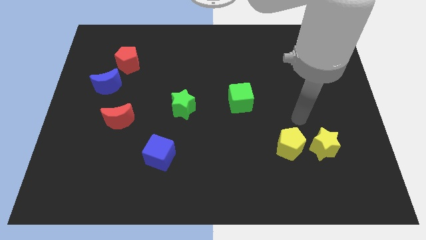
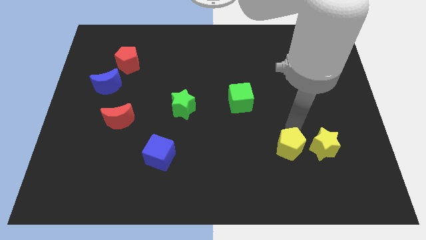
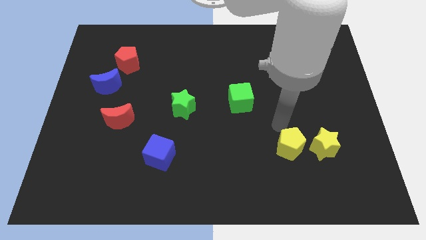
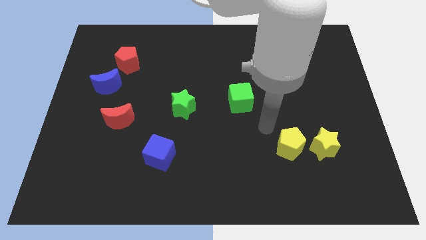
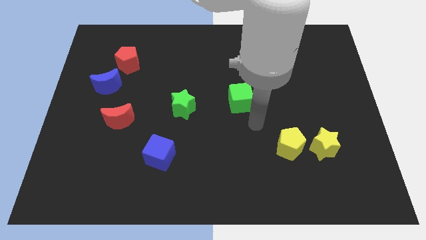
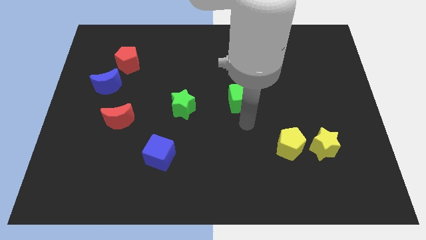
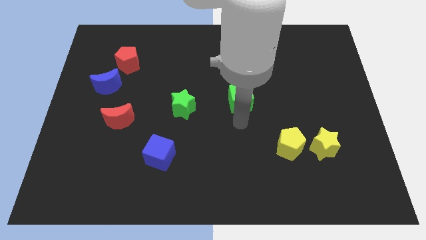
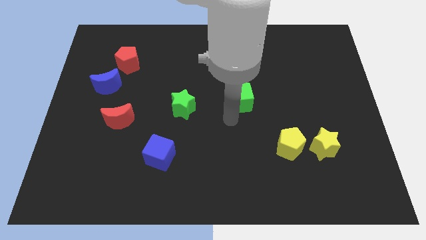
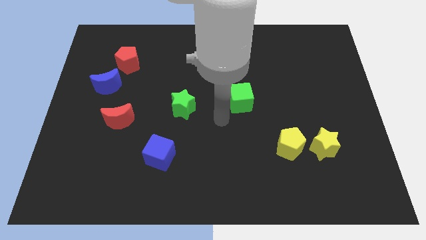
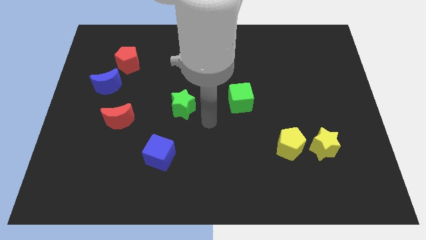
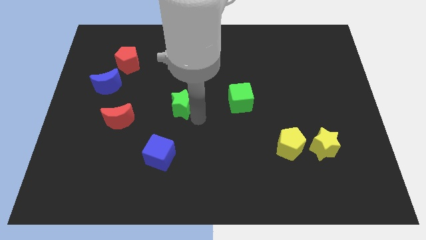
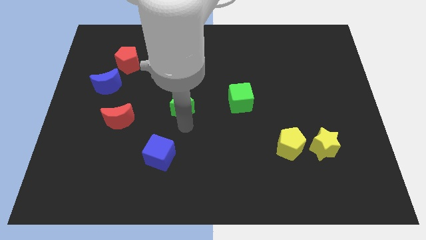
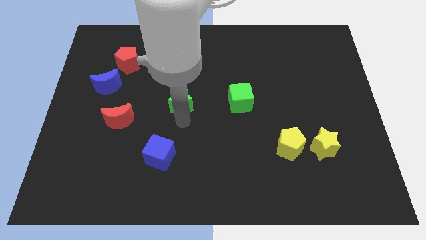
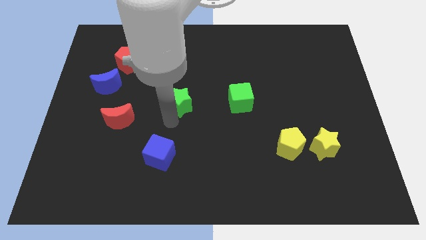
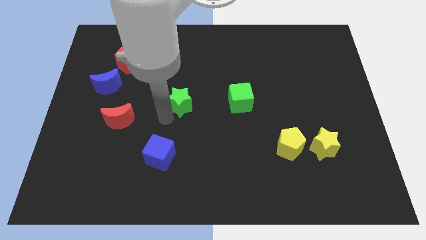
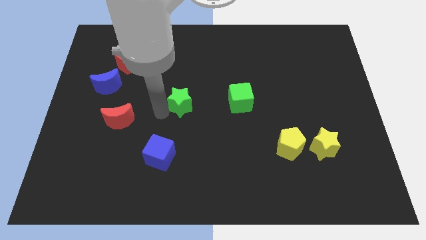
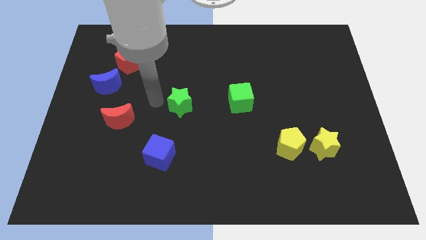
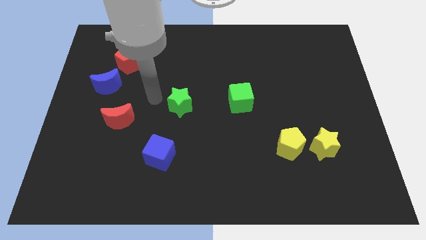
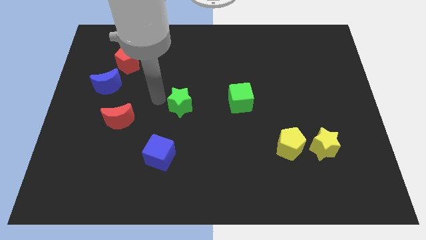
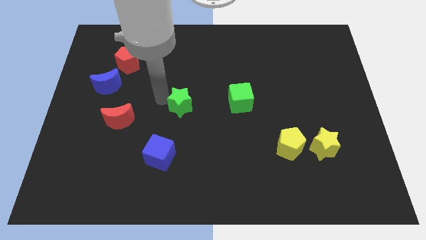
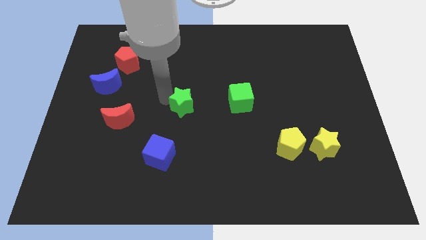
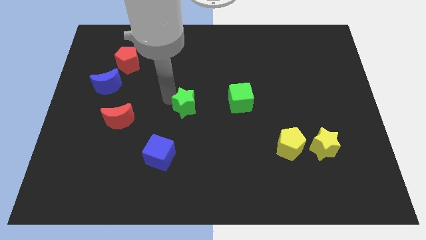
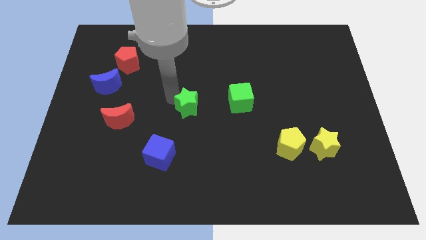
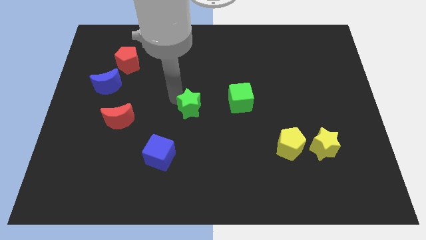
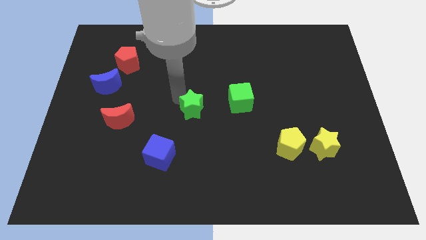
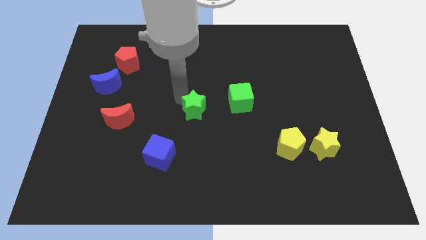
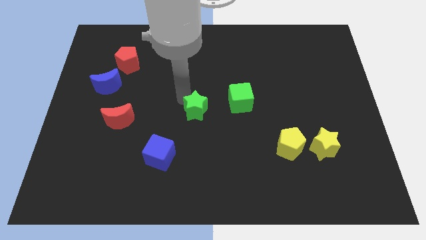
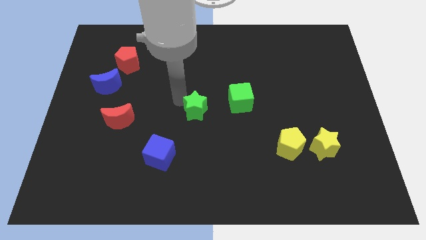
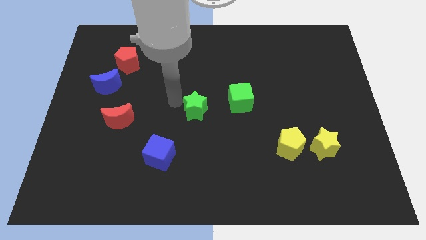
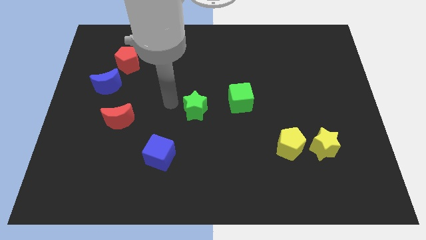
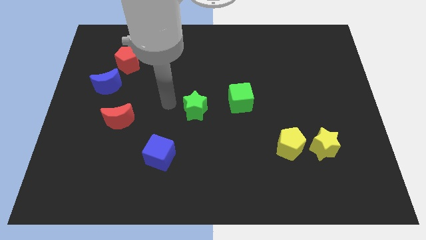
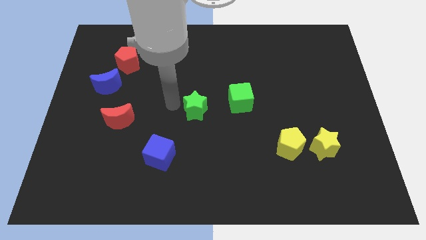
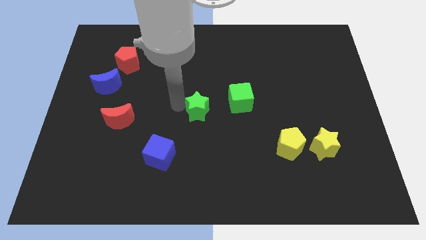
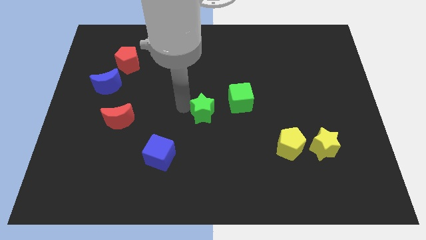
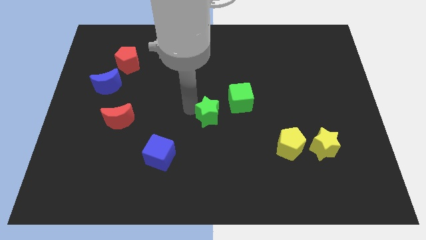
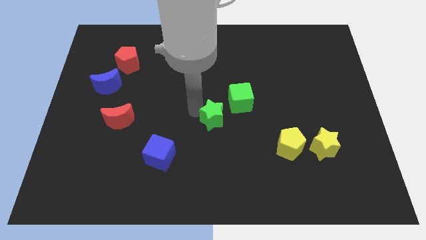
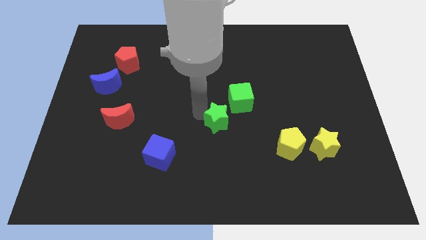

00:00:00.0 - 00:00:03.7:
slightly slide the green star right

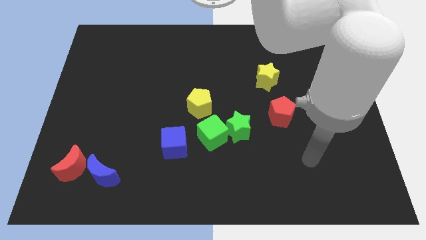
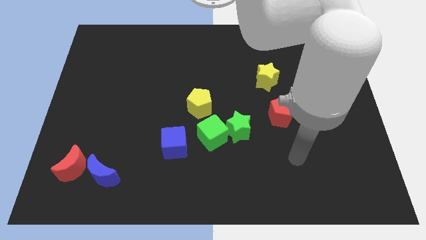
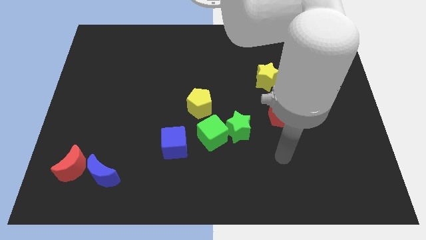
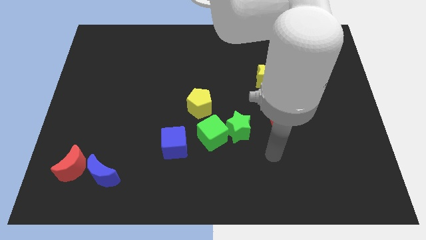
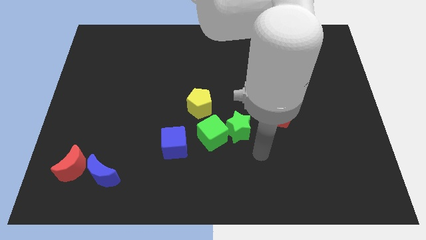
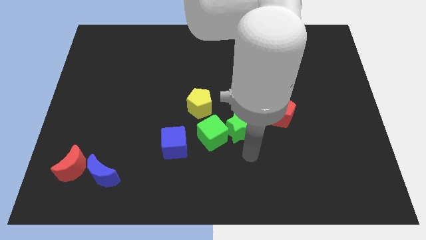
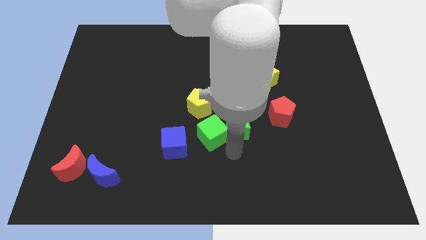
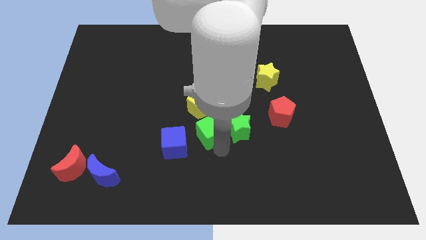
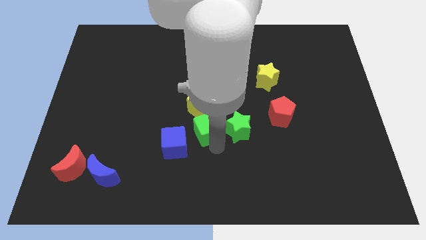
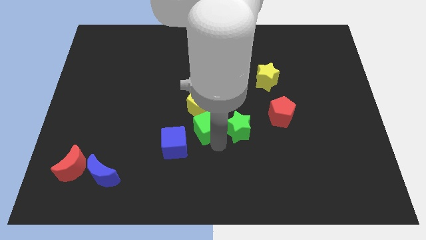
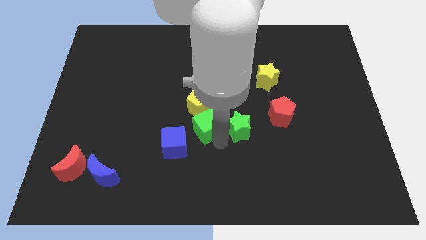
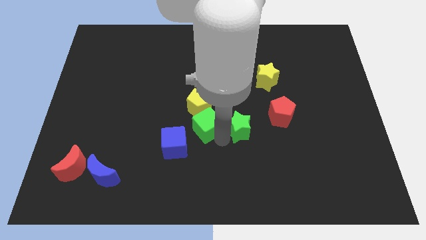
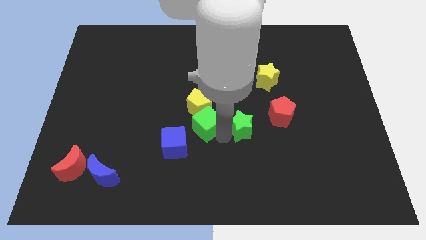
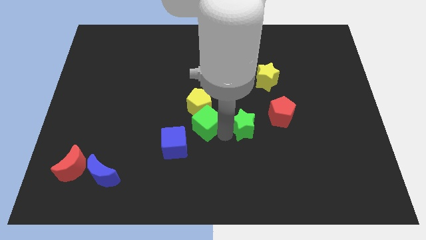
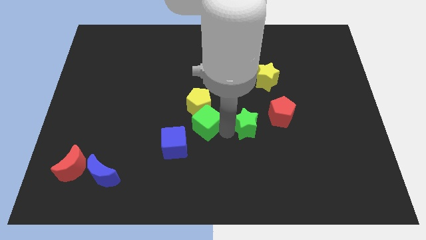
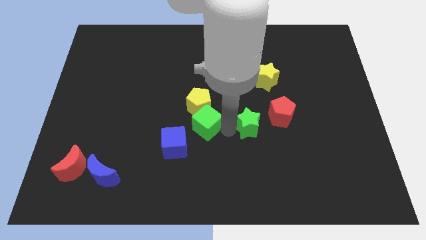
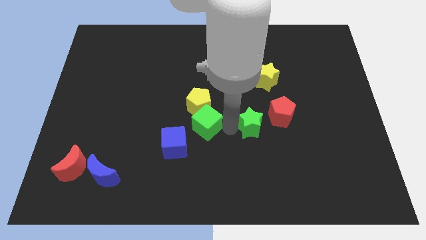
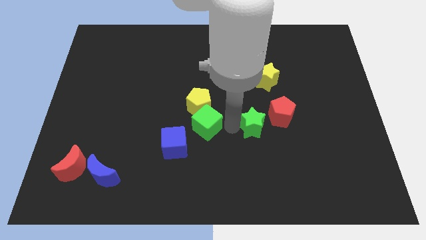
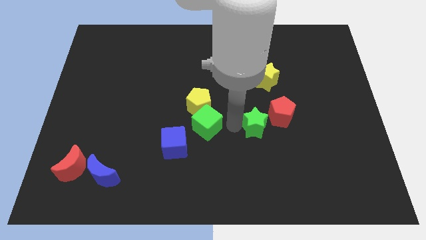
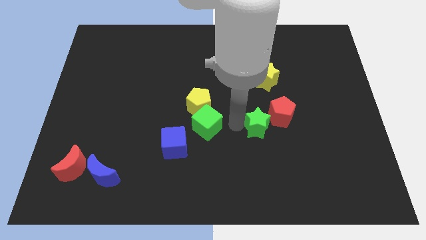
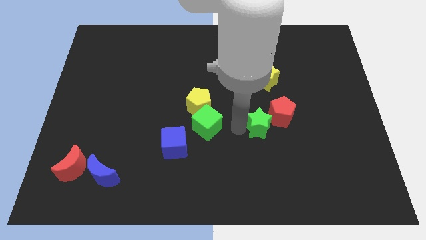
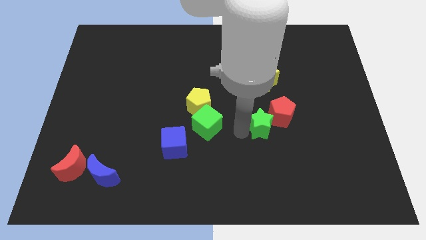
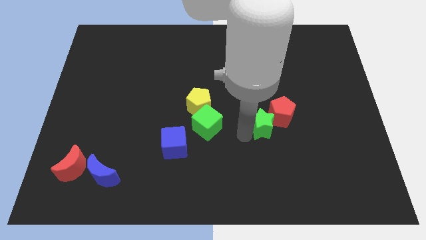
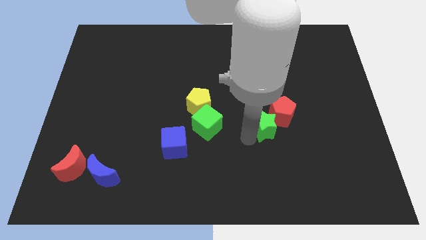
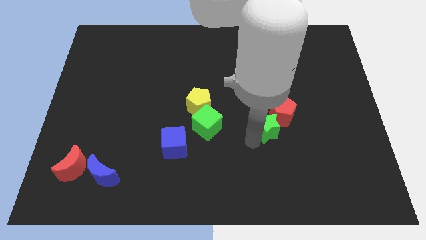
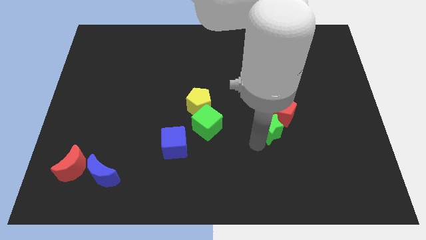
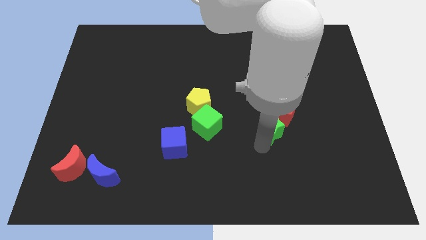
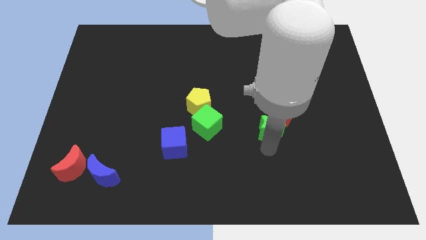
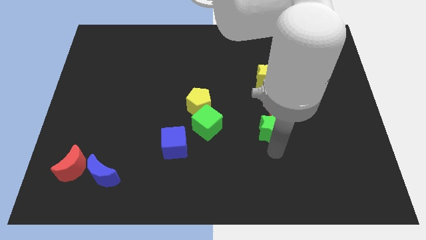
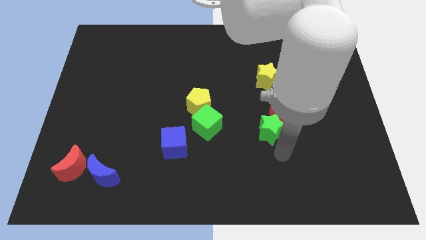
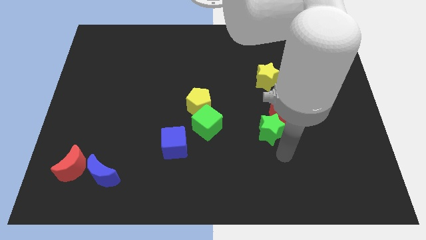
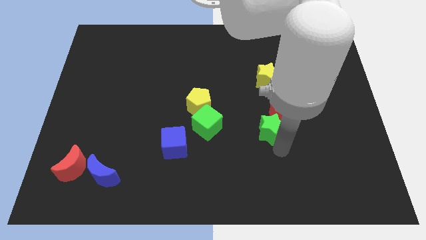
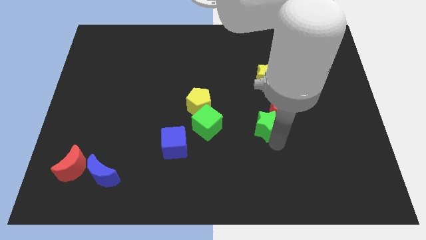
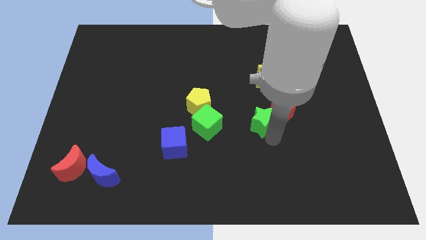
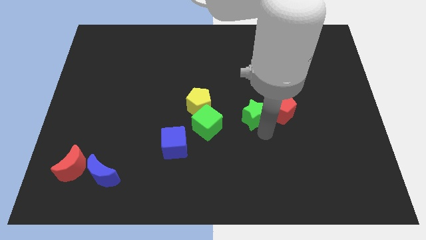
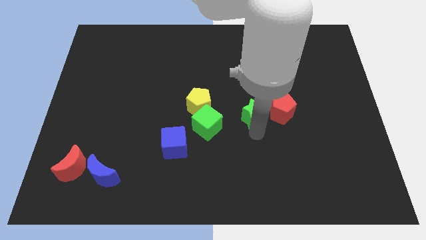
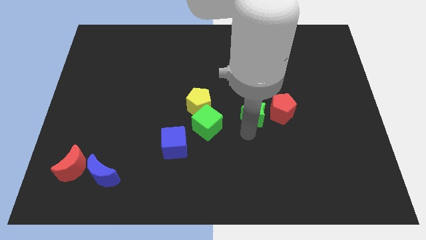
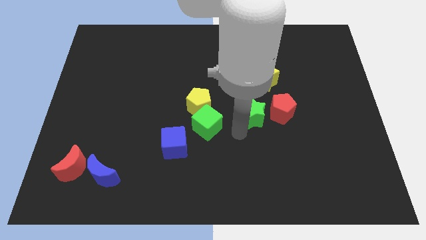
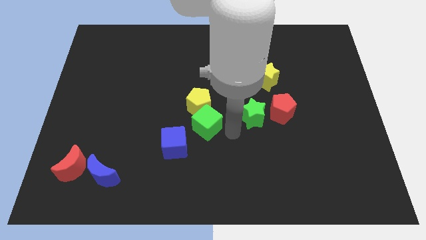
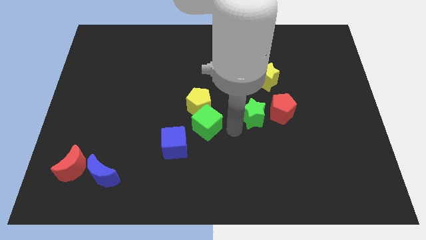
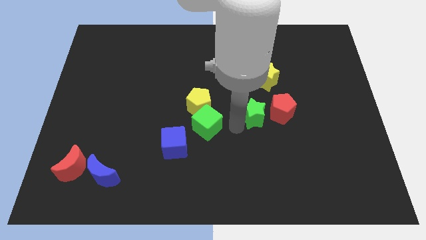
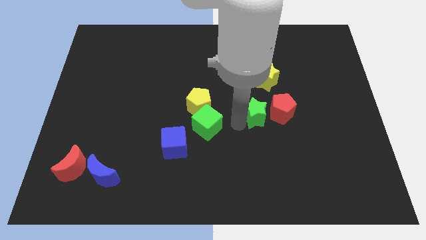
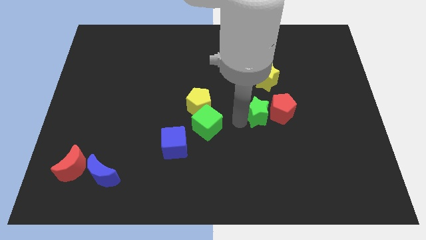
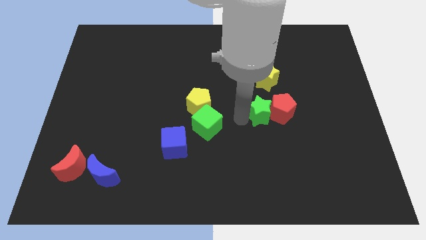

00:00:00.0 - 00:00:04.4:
slightly slide the green star upwards and right diagonally

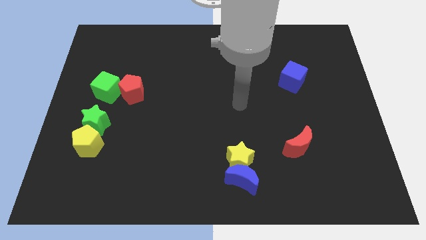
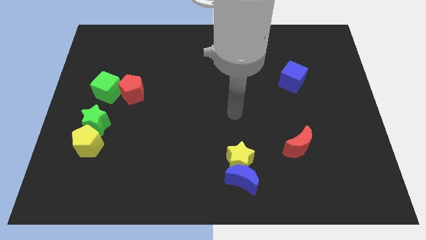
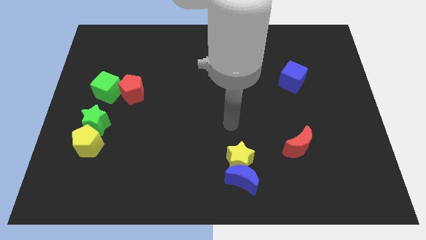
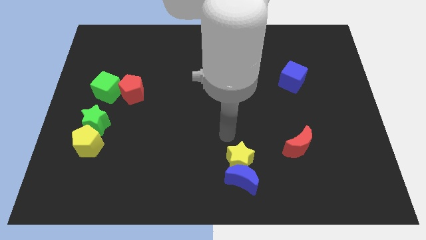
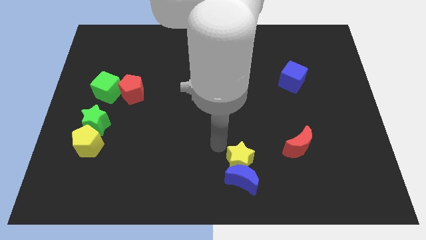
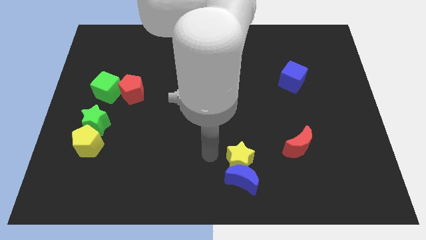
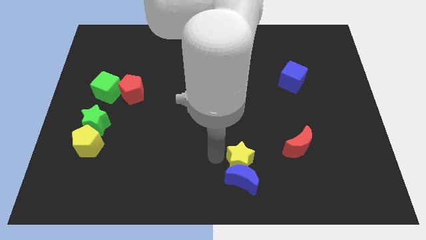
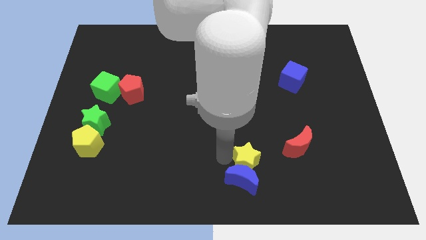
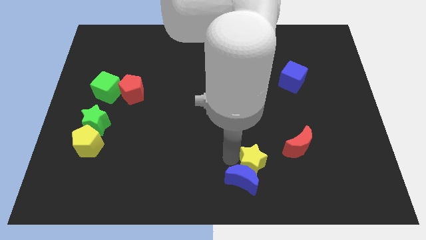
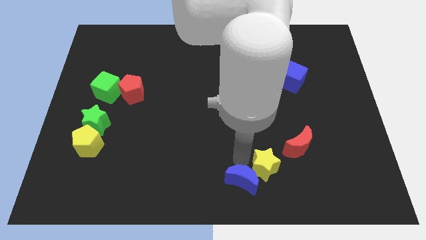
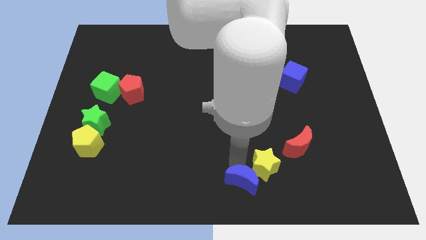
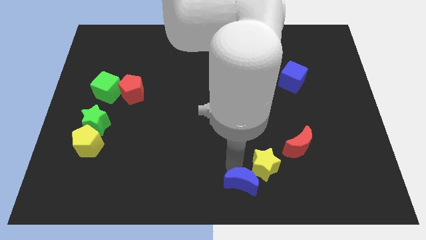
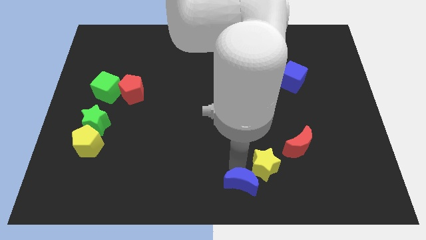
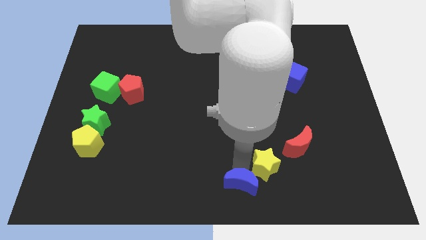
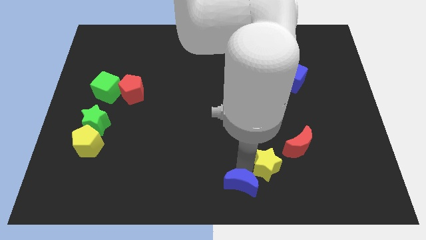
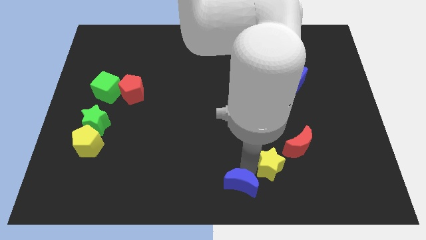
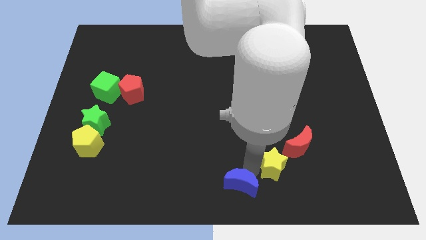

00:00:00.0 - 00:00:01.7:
slide the yellow star right slightly
